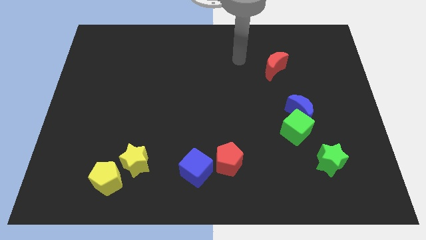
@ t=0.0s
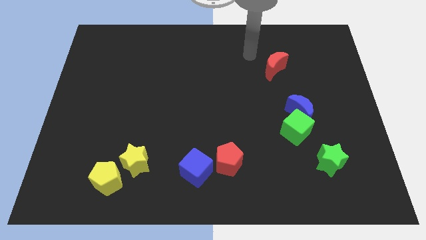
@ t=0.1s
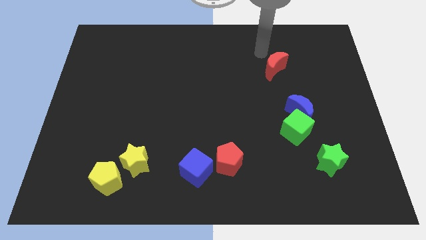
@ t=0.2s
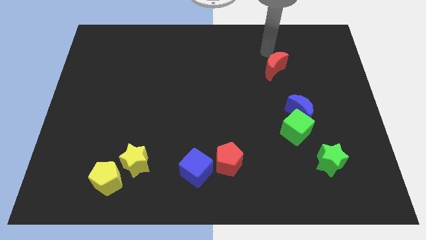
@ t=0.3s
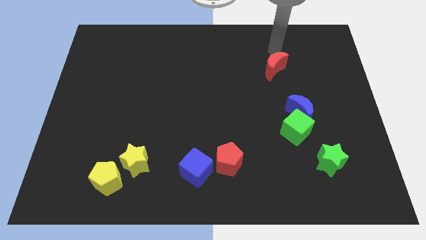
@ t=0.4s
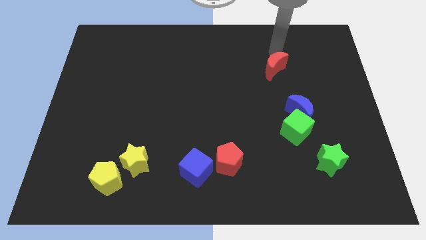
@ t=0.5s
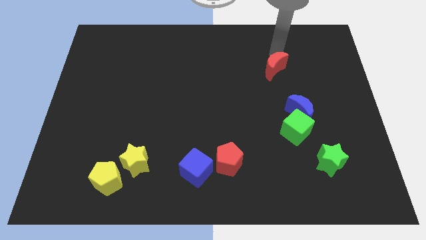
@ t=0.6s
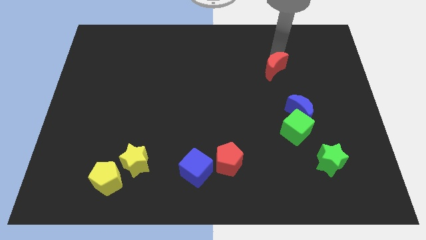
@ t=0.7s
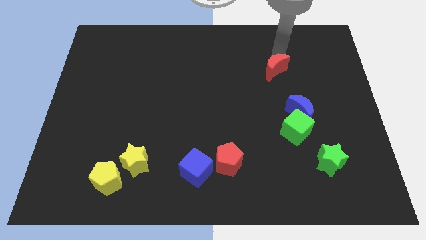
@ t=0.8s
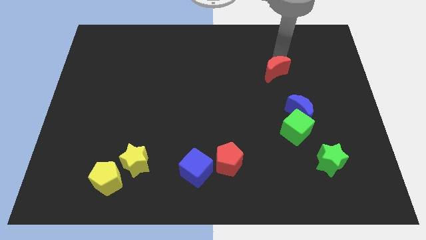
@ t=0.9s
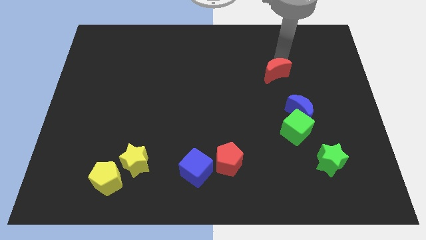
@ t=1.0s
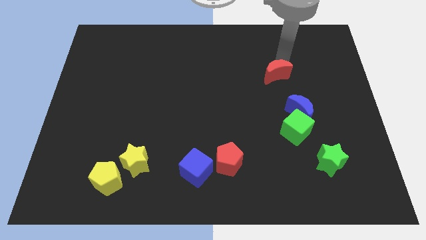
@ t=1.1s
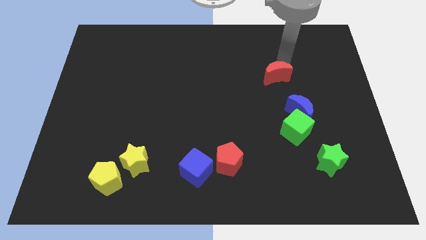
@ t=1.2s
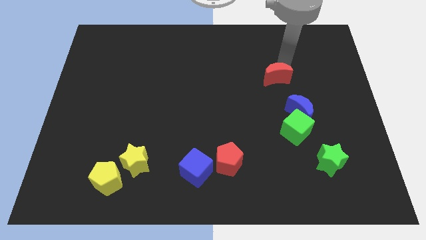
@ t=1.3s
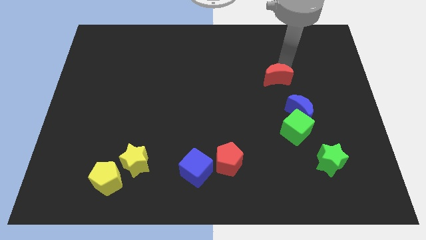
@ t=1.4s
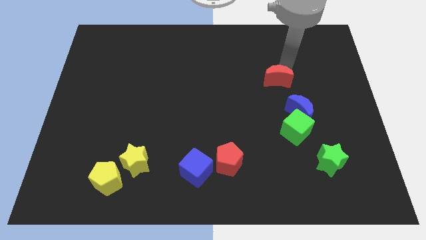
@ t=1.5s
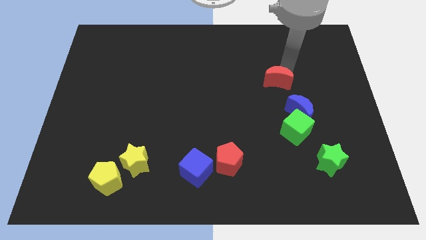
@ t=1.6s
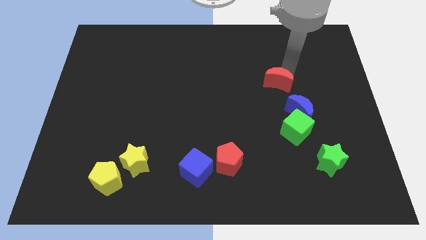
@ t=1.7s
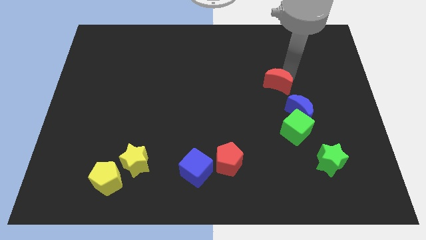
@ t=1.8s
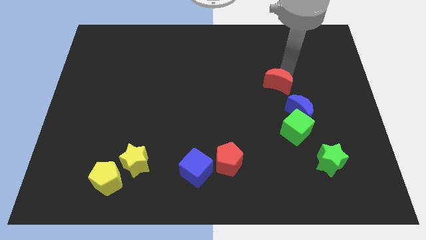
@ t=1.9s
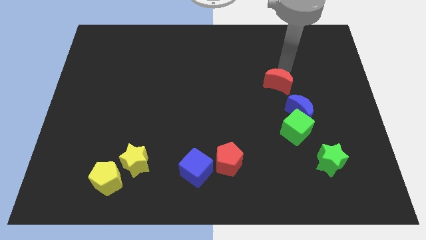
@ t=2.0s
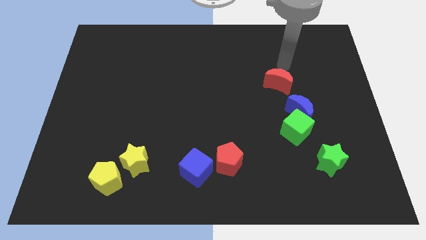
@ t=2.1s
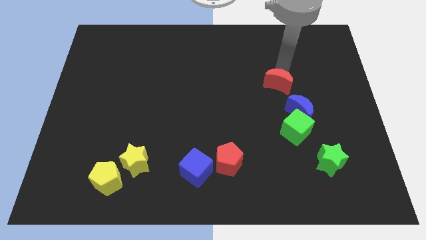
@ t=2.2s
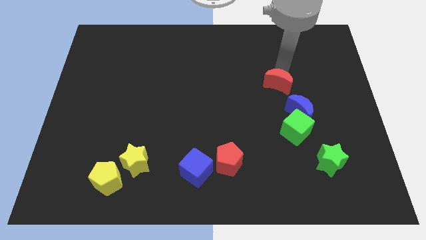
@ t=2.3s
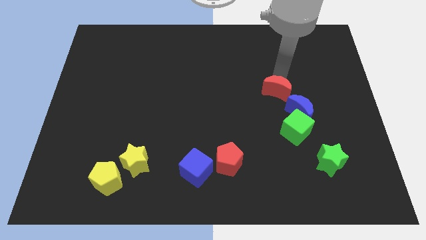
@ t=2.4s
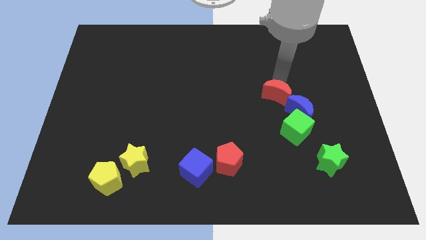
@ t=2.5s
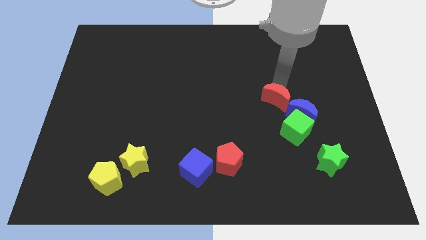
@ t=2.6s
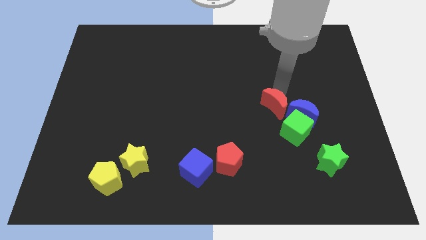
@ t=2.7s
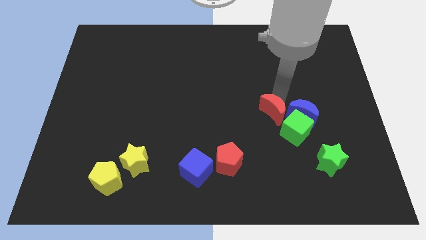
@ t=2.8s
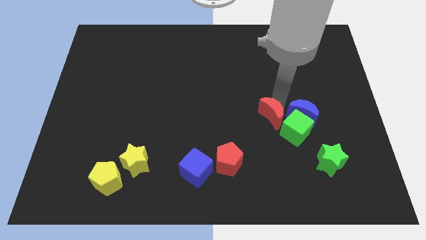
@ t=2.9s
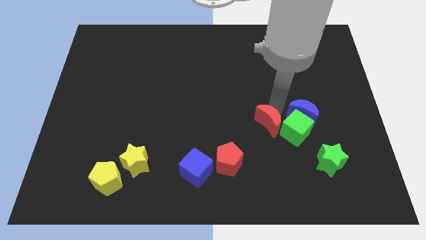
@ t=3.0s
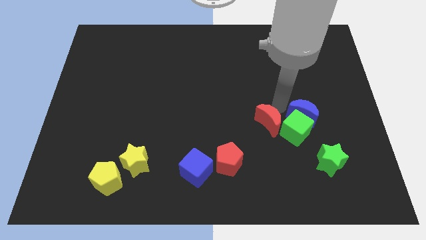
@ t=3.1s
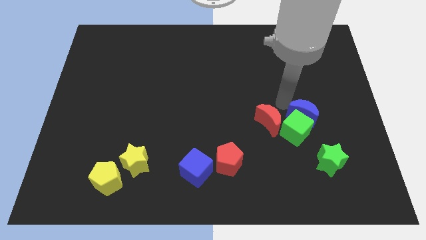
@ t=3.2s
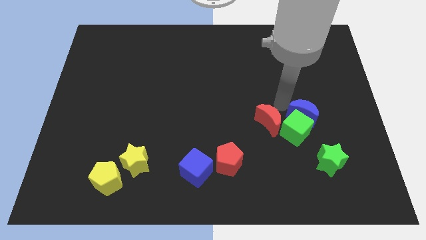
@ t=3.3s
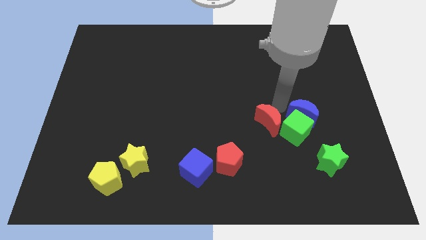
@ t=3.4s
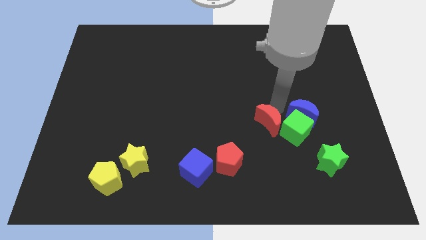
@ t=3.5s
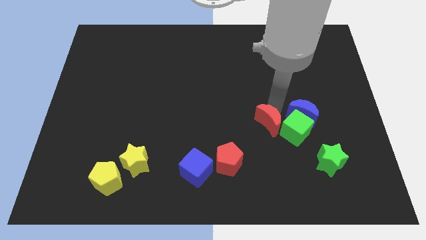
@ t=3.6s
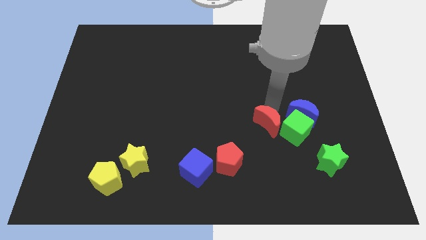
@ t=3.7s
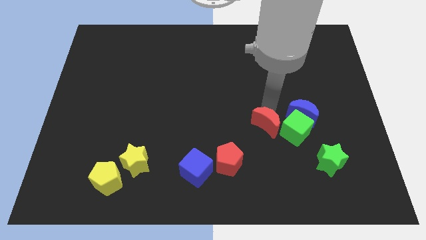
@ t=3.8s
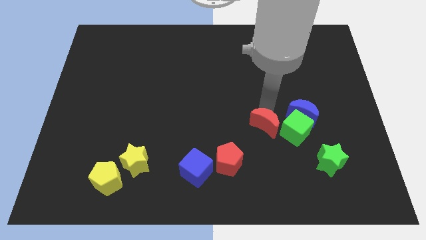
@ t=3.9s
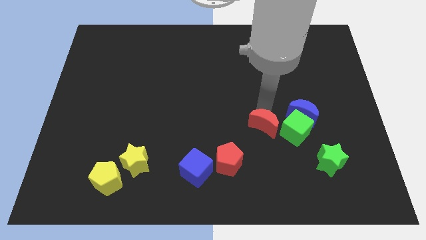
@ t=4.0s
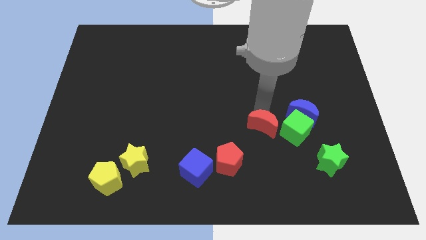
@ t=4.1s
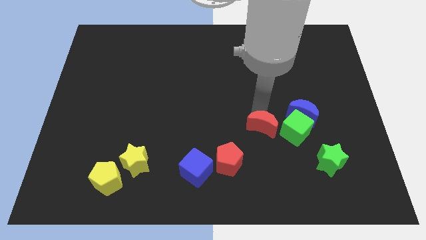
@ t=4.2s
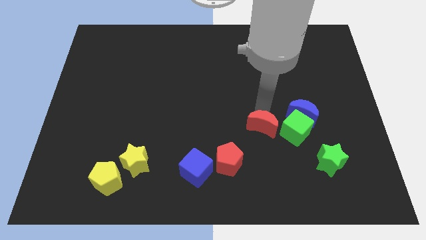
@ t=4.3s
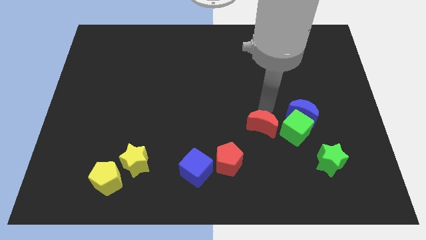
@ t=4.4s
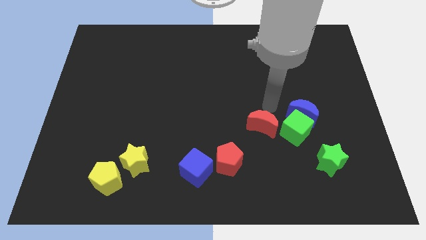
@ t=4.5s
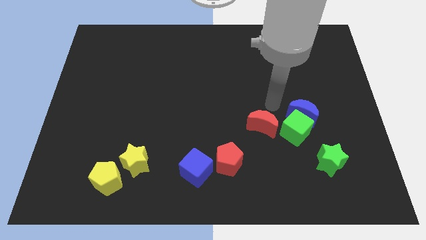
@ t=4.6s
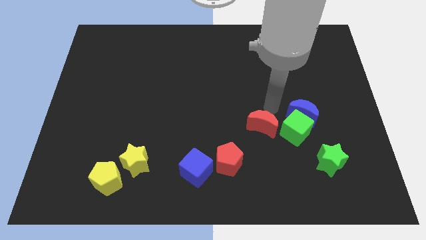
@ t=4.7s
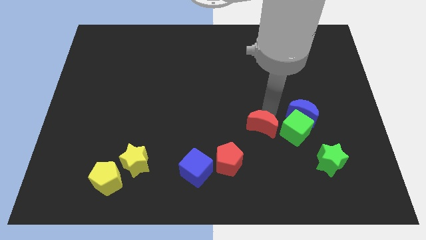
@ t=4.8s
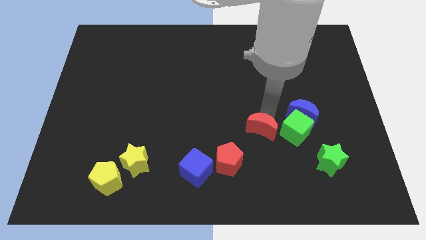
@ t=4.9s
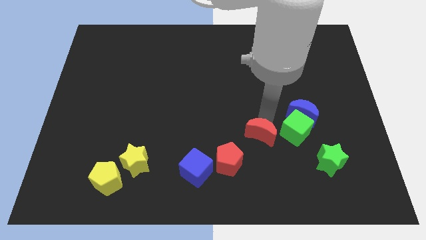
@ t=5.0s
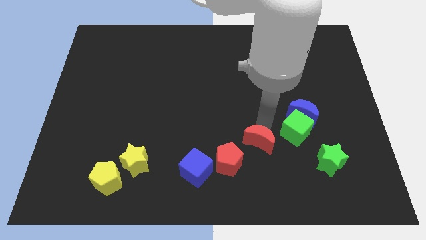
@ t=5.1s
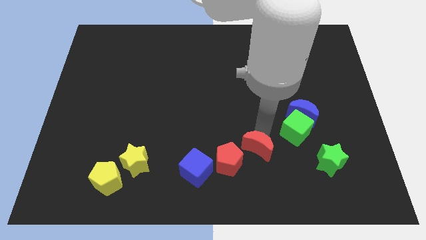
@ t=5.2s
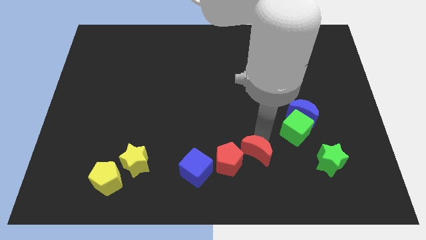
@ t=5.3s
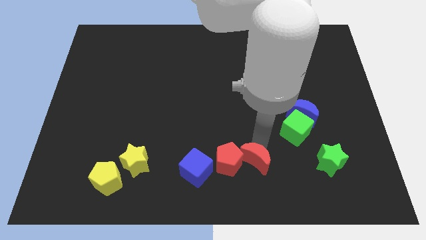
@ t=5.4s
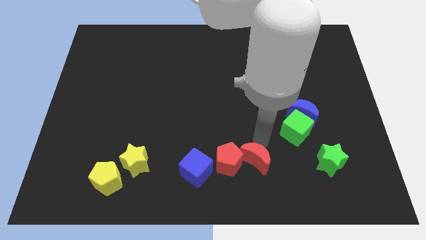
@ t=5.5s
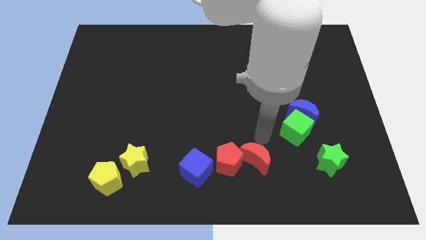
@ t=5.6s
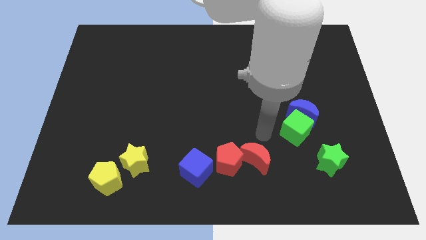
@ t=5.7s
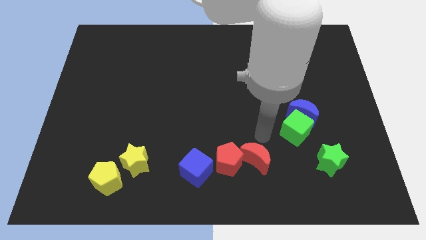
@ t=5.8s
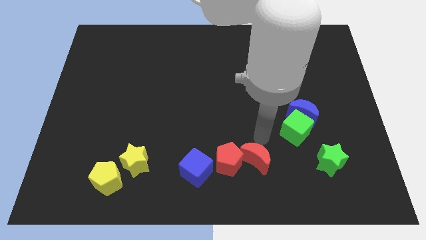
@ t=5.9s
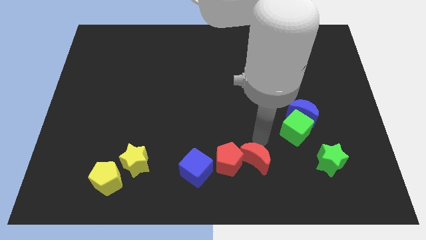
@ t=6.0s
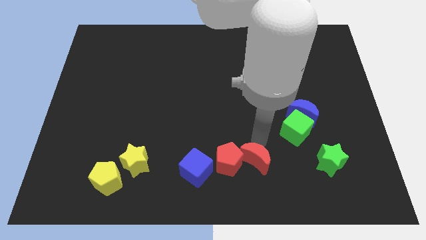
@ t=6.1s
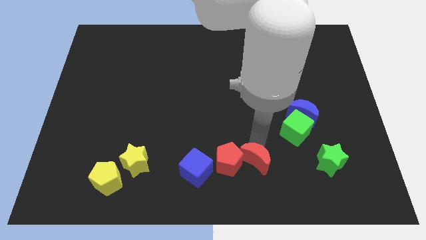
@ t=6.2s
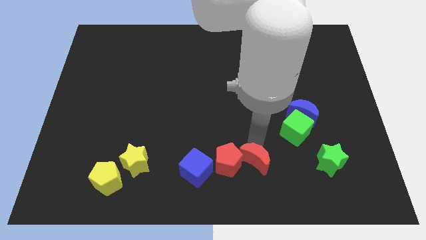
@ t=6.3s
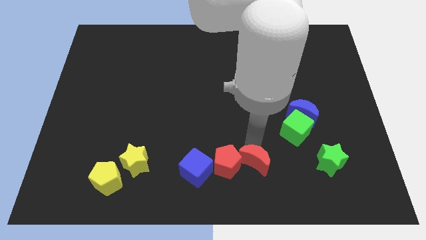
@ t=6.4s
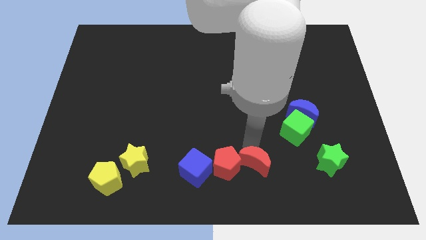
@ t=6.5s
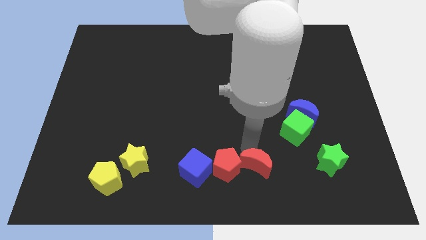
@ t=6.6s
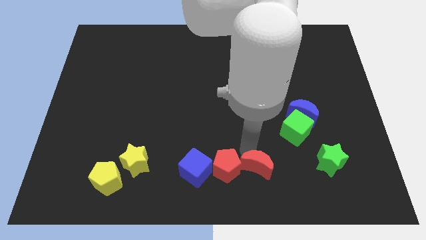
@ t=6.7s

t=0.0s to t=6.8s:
put the red moon to the bottom side
